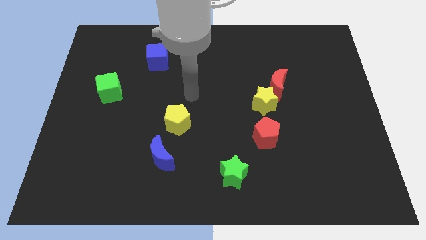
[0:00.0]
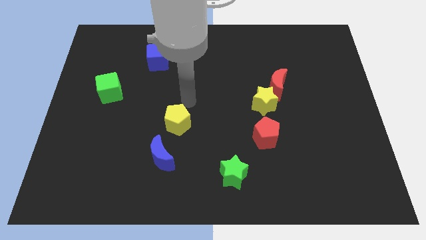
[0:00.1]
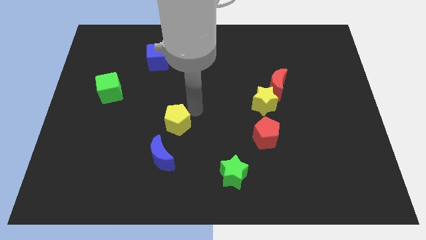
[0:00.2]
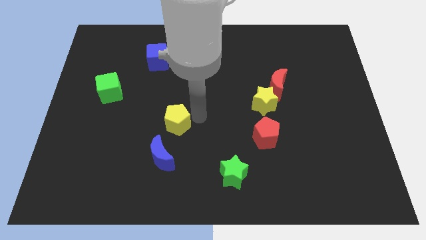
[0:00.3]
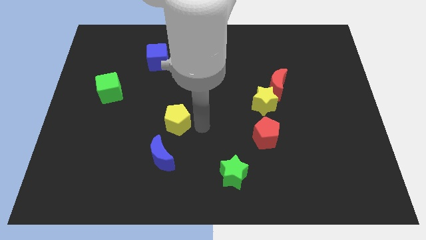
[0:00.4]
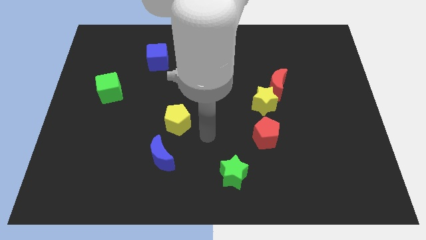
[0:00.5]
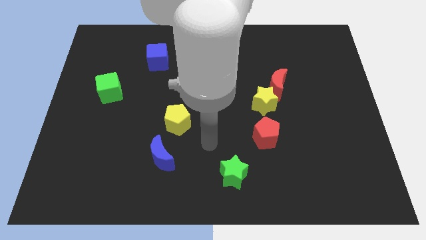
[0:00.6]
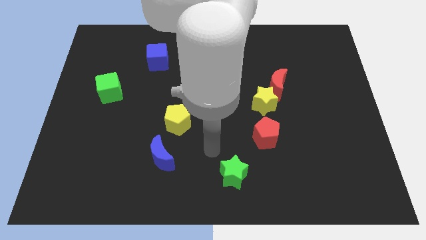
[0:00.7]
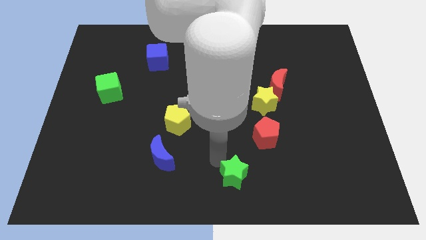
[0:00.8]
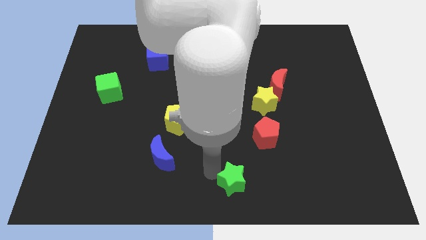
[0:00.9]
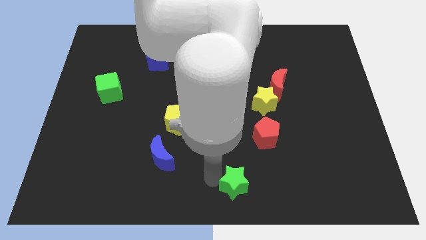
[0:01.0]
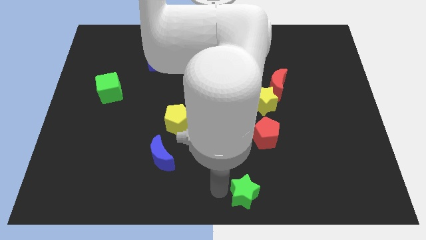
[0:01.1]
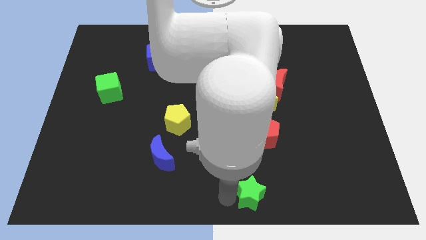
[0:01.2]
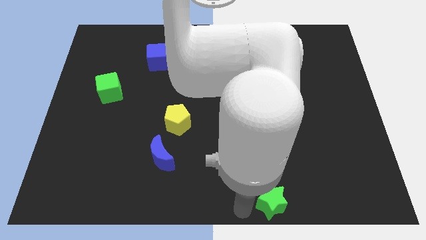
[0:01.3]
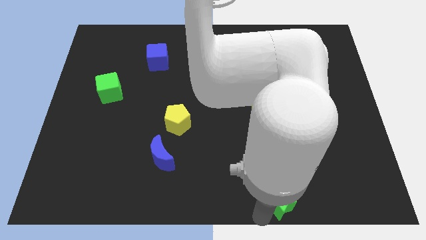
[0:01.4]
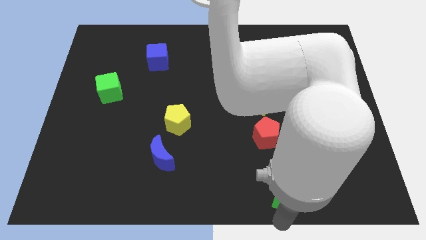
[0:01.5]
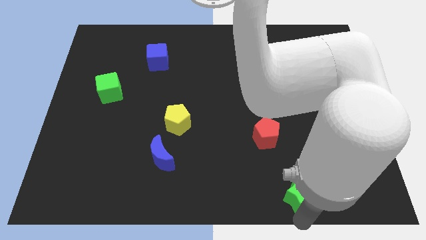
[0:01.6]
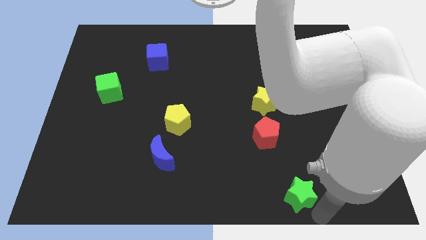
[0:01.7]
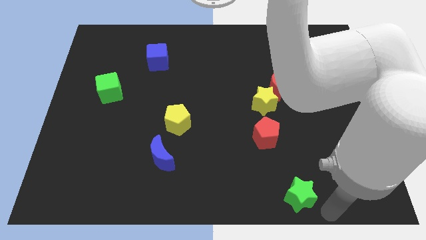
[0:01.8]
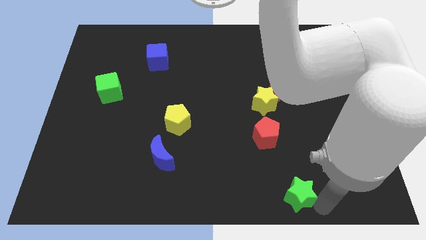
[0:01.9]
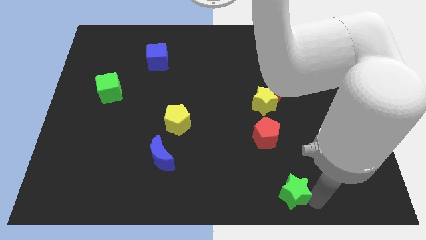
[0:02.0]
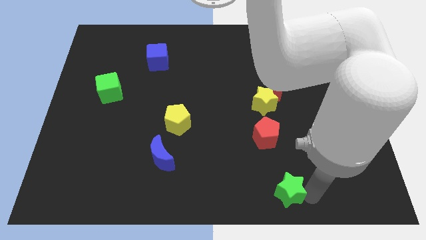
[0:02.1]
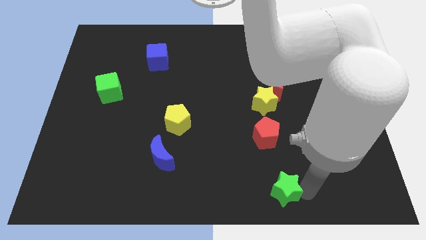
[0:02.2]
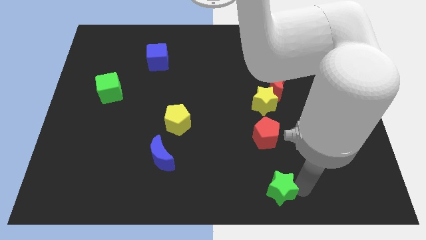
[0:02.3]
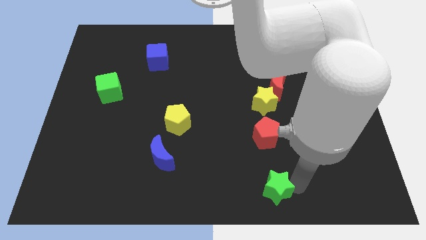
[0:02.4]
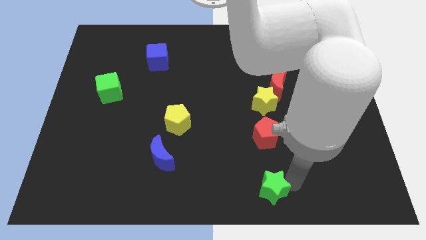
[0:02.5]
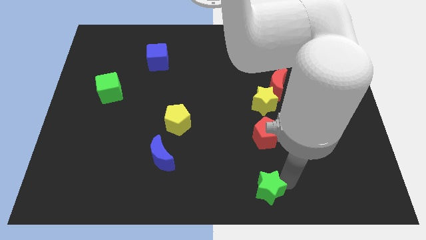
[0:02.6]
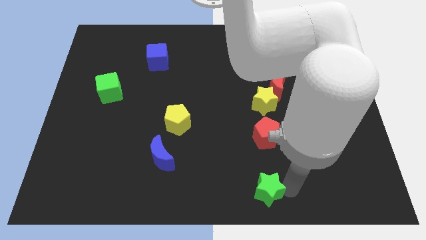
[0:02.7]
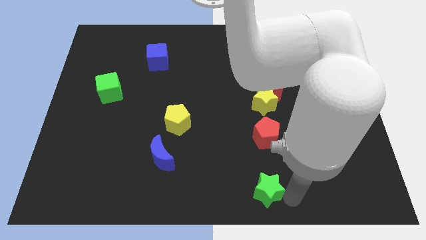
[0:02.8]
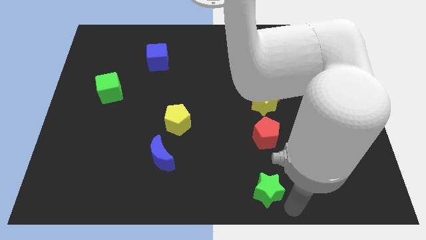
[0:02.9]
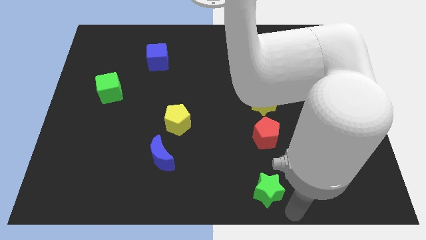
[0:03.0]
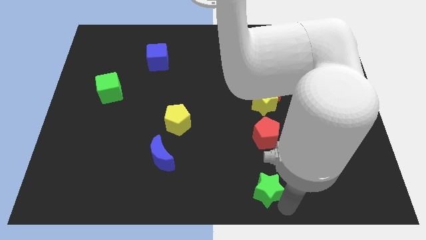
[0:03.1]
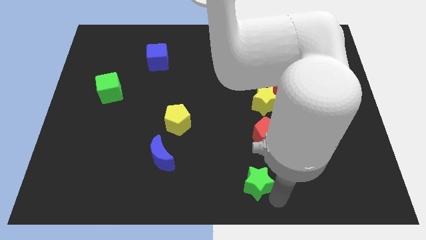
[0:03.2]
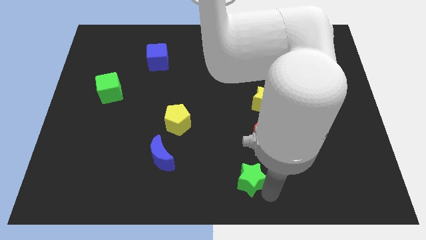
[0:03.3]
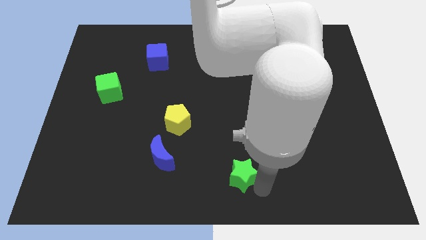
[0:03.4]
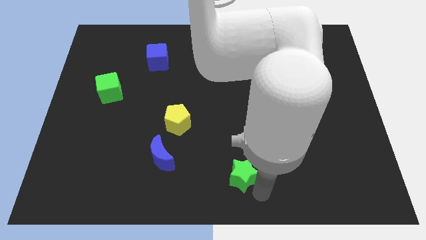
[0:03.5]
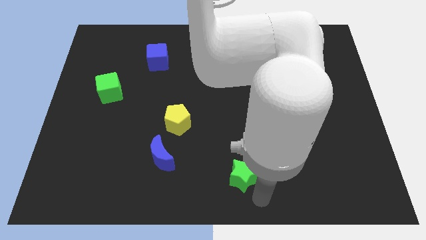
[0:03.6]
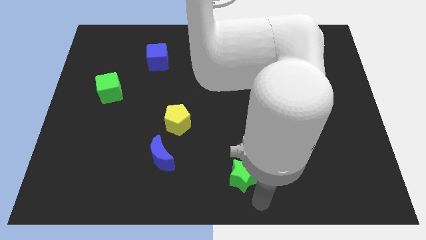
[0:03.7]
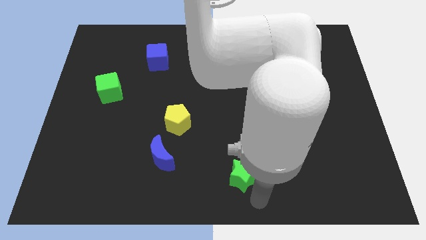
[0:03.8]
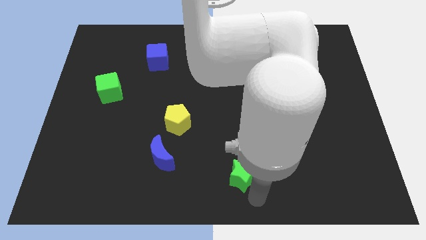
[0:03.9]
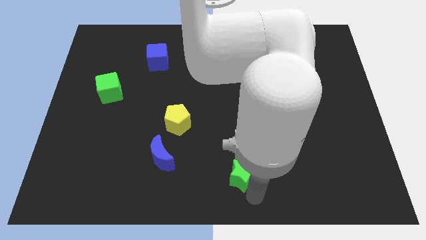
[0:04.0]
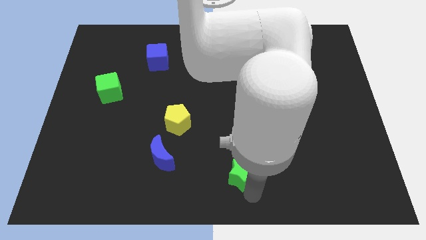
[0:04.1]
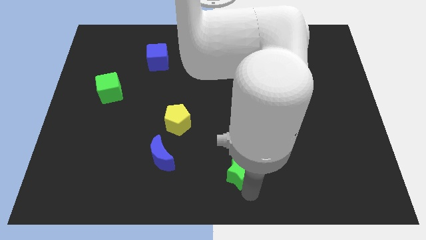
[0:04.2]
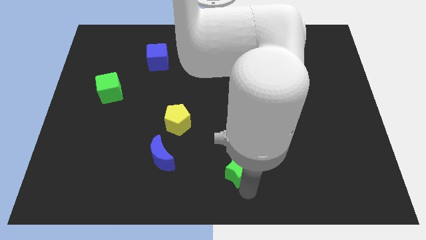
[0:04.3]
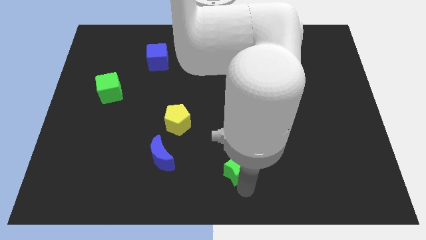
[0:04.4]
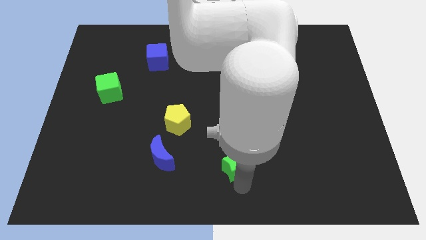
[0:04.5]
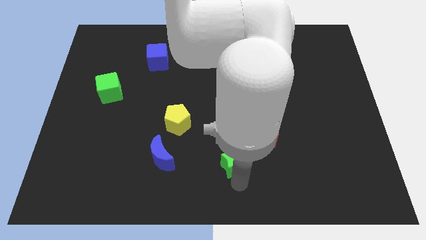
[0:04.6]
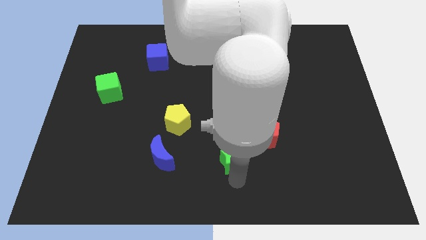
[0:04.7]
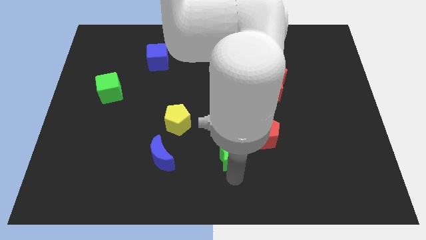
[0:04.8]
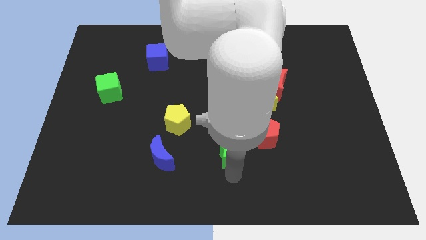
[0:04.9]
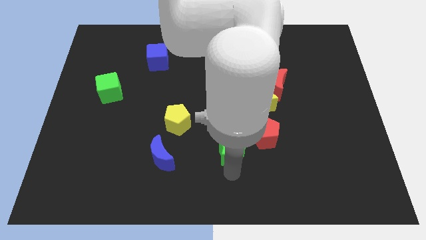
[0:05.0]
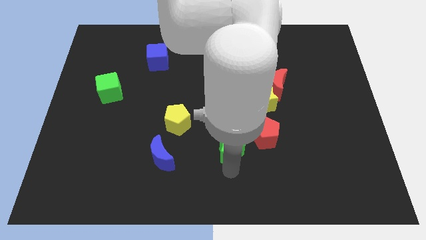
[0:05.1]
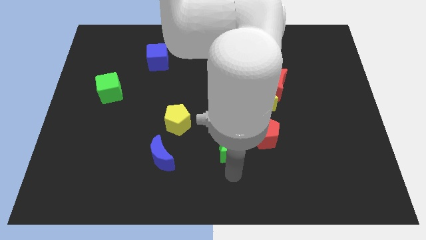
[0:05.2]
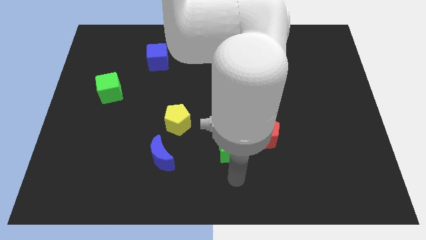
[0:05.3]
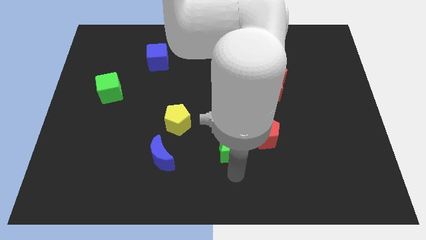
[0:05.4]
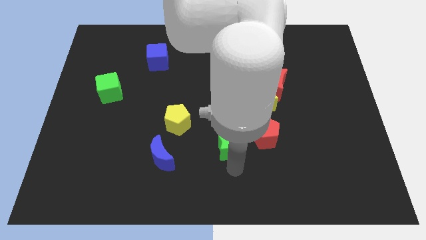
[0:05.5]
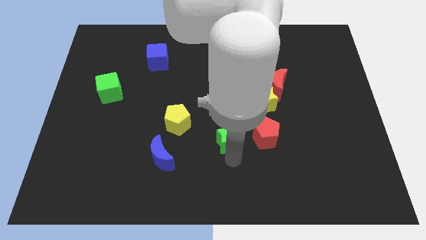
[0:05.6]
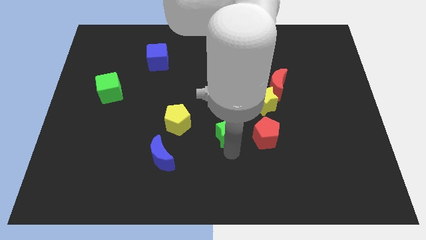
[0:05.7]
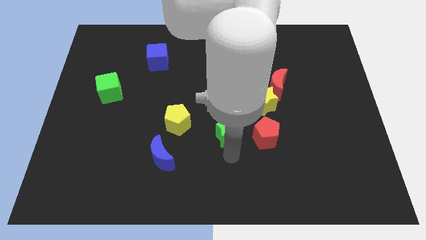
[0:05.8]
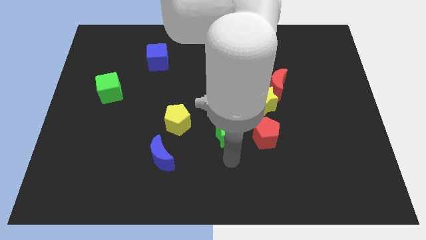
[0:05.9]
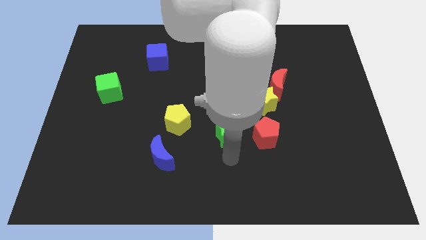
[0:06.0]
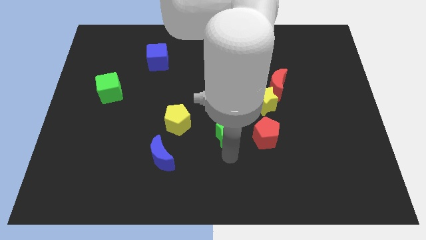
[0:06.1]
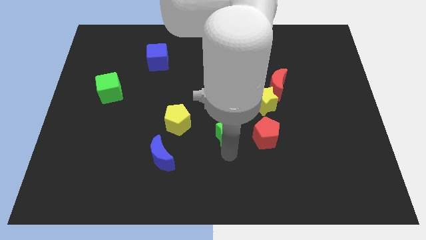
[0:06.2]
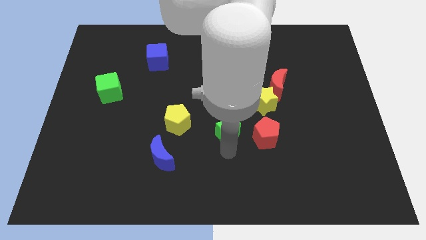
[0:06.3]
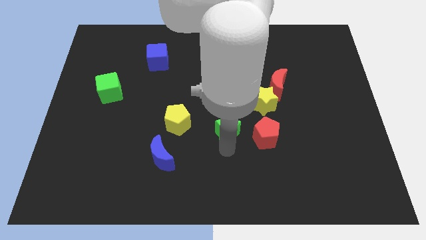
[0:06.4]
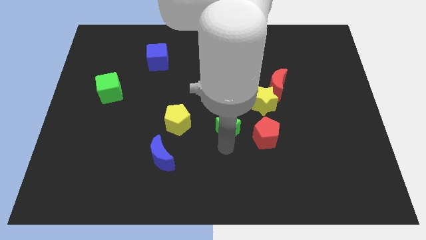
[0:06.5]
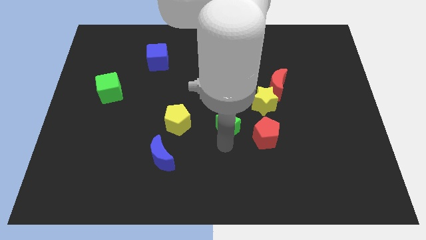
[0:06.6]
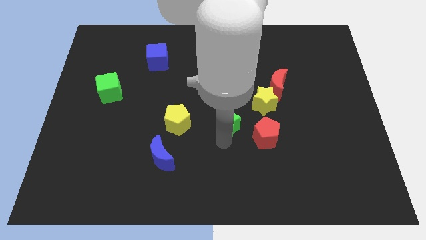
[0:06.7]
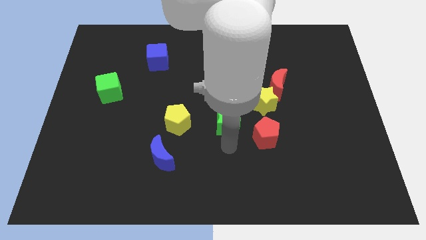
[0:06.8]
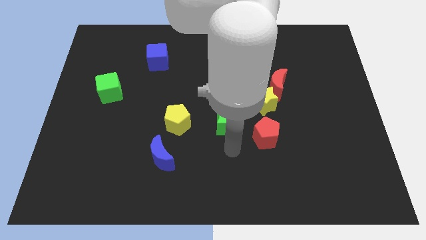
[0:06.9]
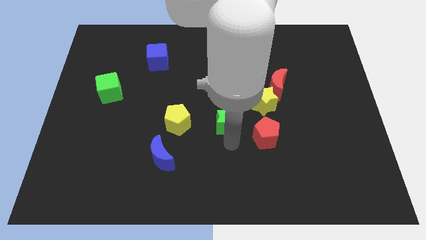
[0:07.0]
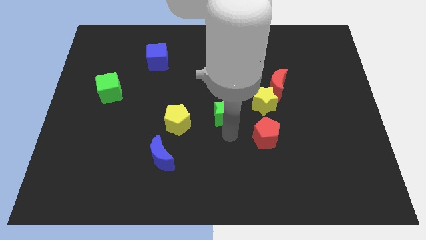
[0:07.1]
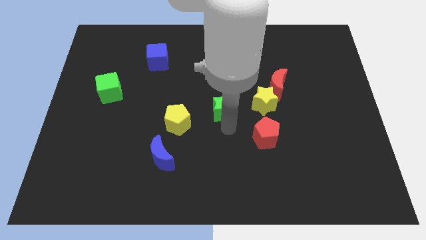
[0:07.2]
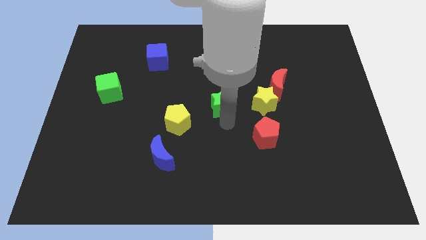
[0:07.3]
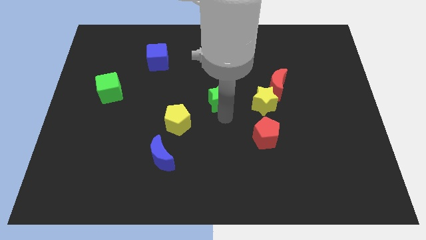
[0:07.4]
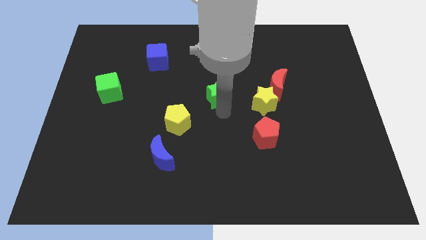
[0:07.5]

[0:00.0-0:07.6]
push the green star up

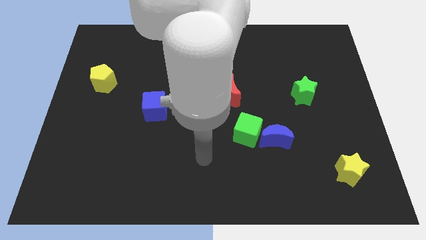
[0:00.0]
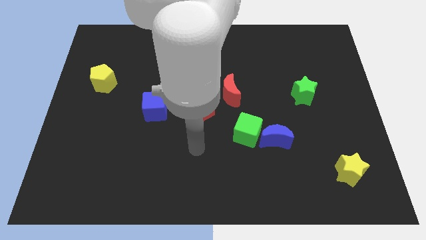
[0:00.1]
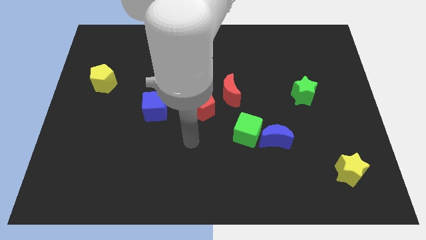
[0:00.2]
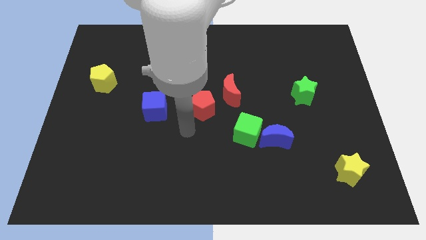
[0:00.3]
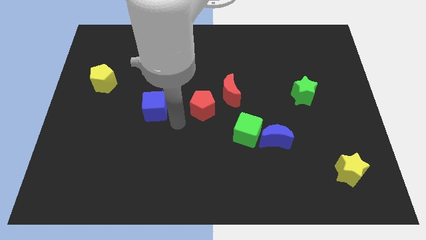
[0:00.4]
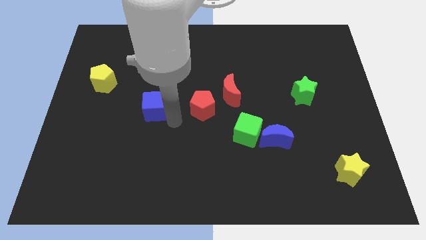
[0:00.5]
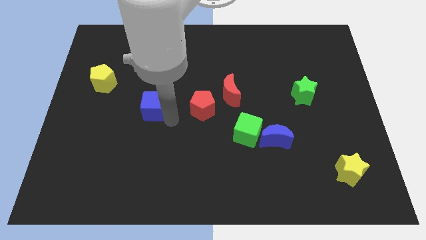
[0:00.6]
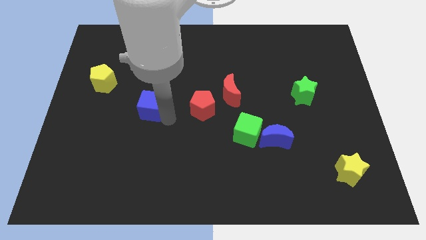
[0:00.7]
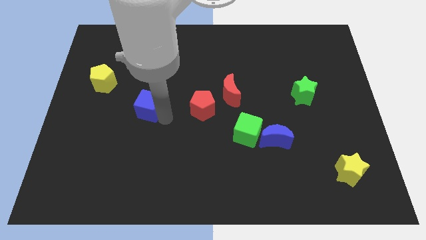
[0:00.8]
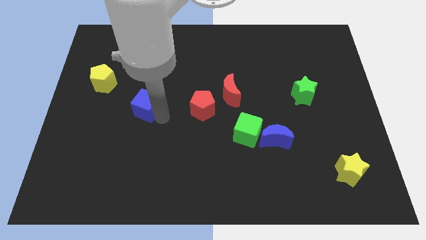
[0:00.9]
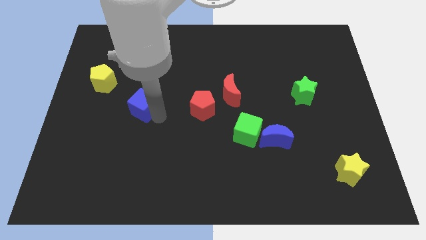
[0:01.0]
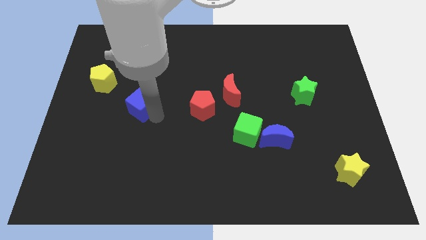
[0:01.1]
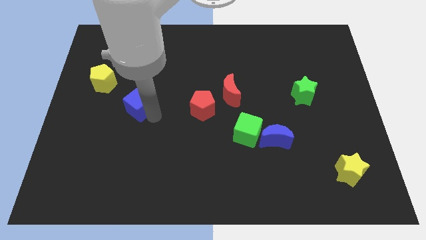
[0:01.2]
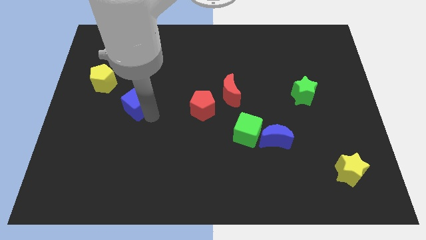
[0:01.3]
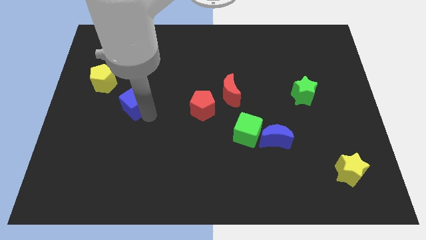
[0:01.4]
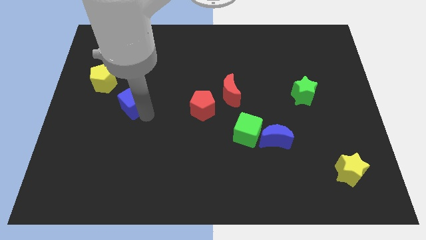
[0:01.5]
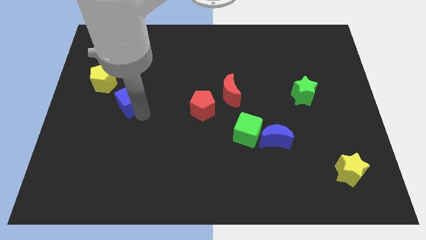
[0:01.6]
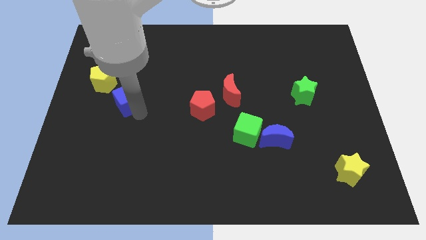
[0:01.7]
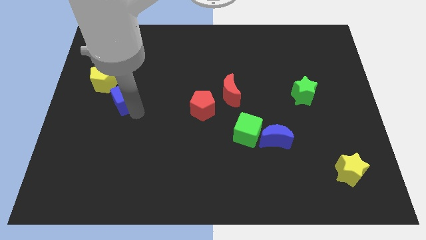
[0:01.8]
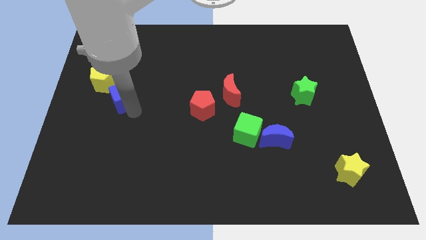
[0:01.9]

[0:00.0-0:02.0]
move the blue cube diagonally up and to the left somewhat
